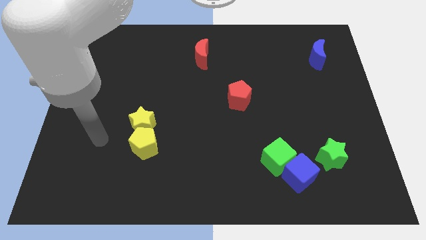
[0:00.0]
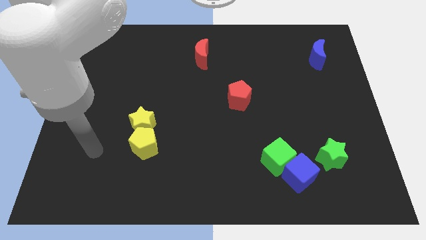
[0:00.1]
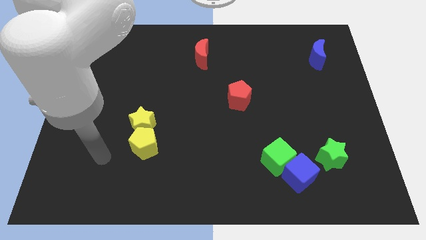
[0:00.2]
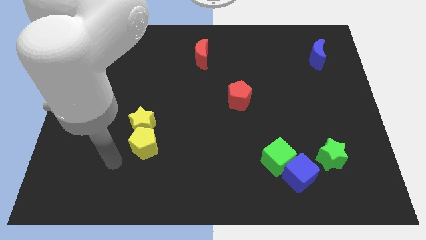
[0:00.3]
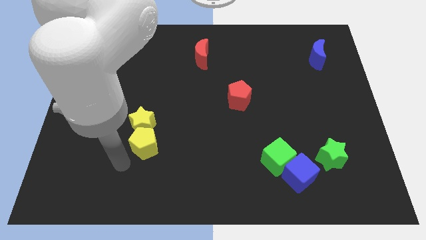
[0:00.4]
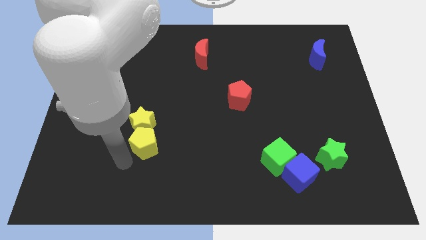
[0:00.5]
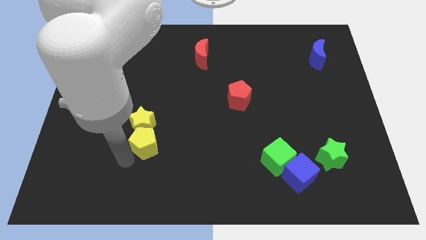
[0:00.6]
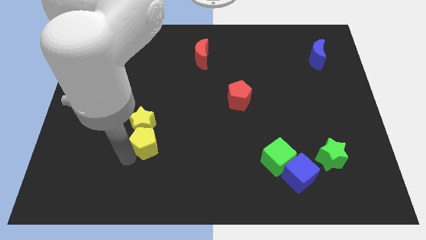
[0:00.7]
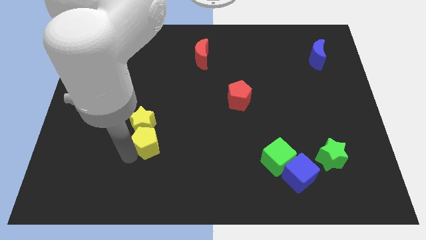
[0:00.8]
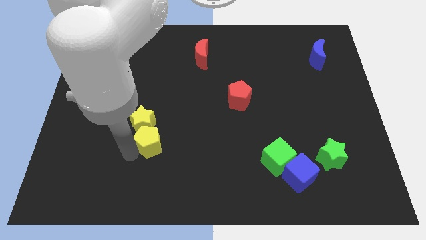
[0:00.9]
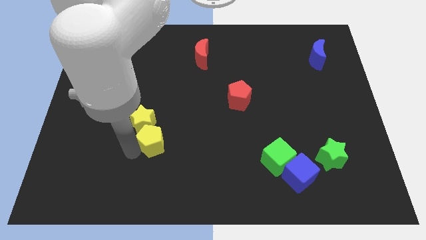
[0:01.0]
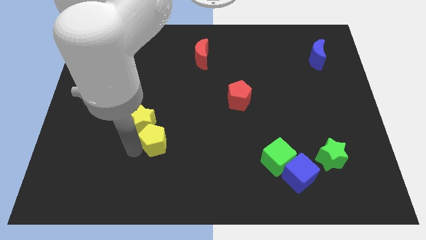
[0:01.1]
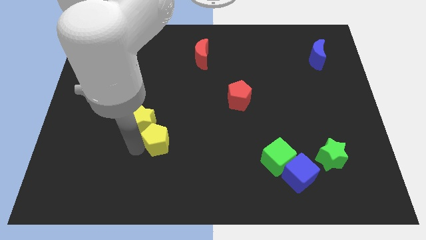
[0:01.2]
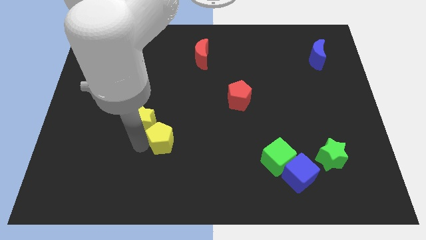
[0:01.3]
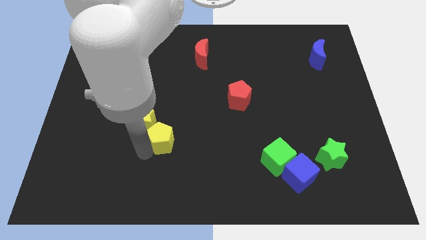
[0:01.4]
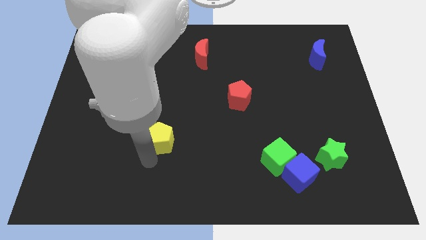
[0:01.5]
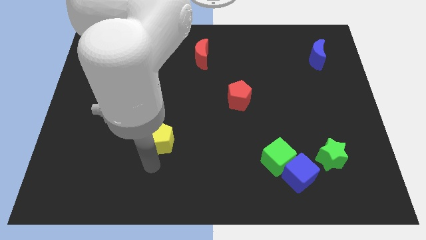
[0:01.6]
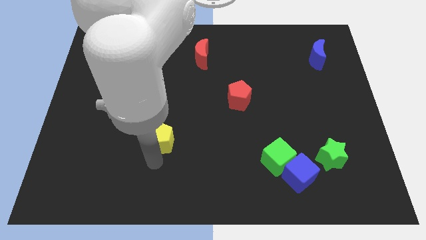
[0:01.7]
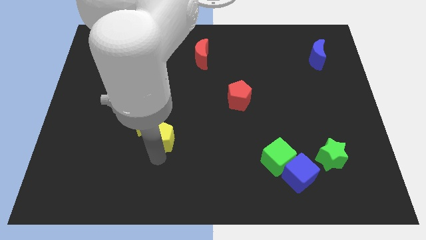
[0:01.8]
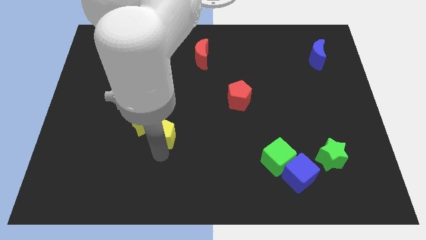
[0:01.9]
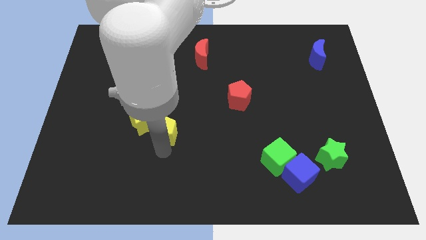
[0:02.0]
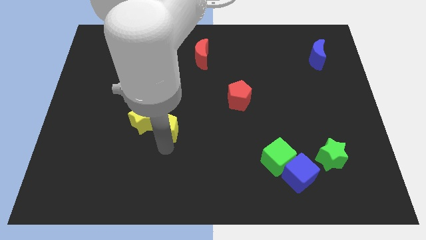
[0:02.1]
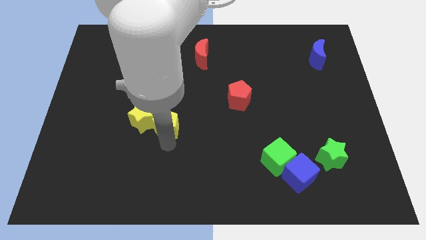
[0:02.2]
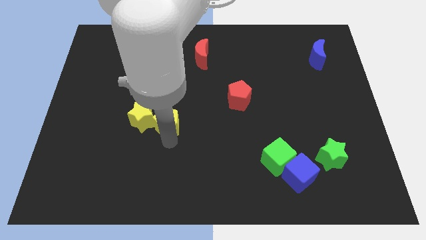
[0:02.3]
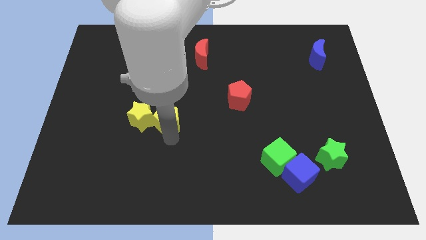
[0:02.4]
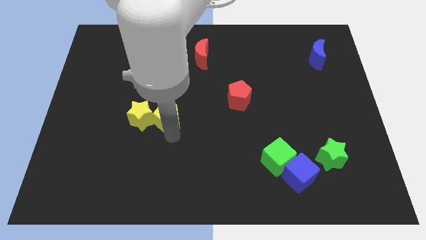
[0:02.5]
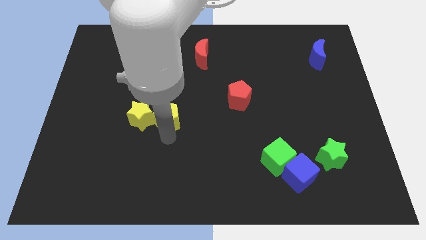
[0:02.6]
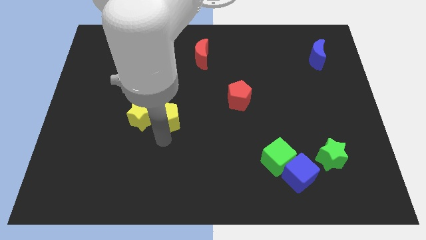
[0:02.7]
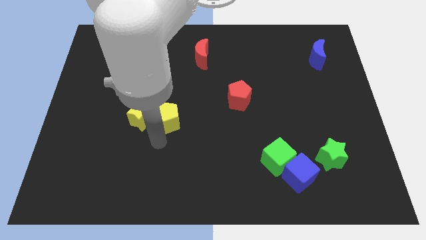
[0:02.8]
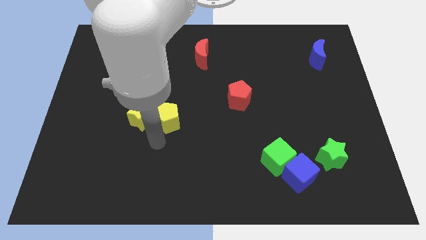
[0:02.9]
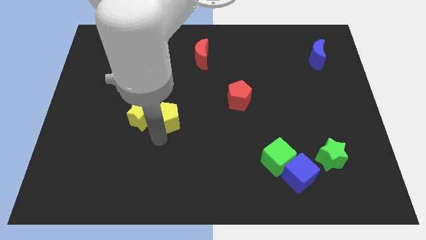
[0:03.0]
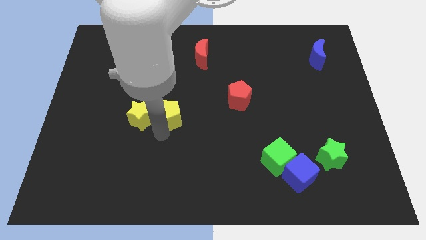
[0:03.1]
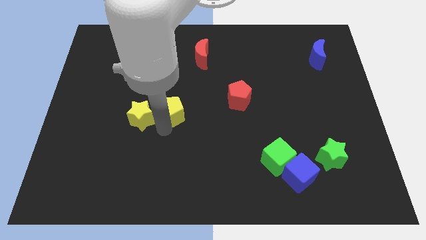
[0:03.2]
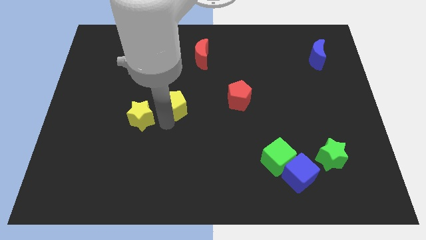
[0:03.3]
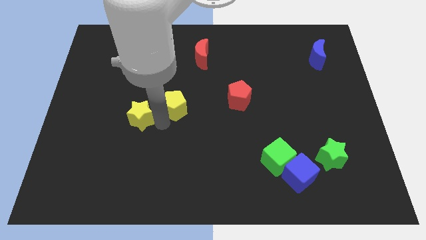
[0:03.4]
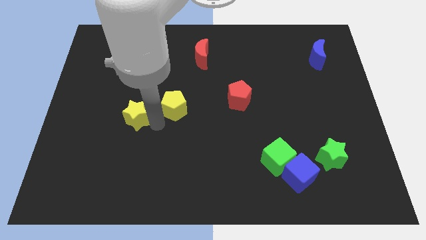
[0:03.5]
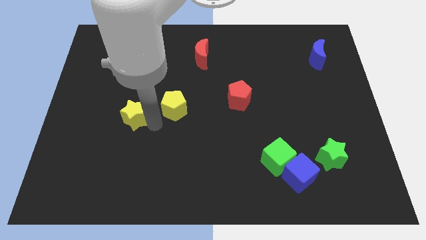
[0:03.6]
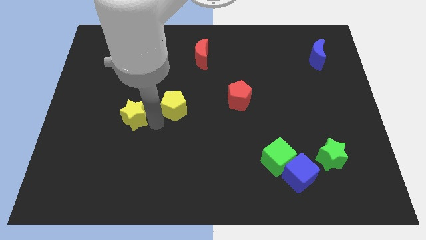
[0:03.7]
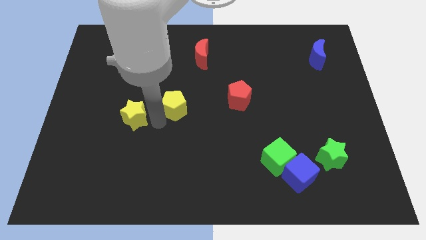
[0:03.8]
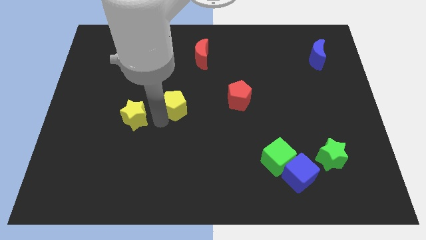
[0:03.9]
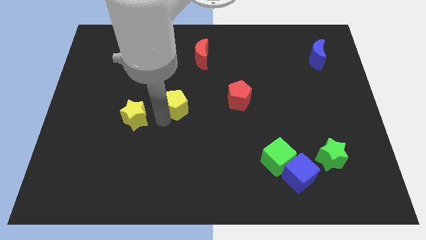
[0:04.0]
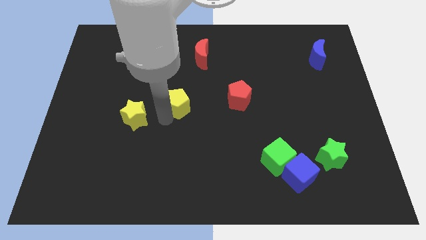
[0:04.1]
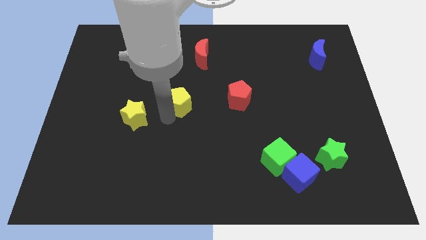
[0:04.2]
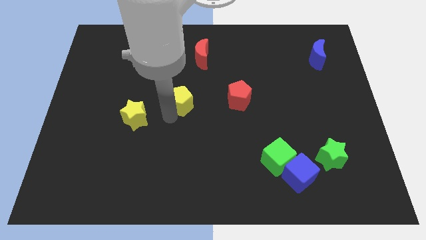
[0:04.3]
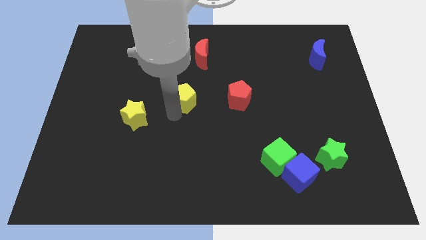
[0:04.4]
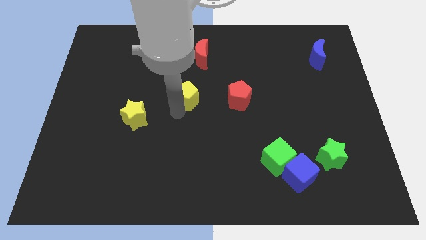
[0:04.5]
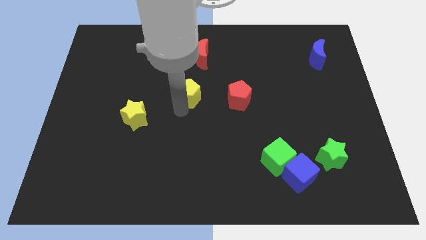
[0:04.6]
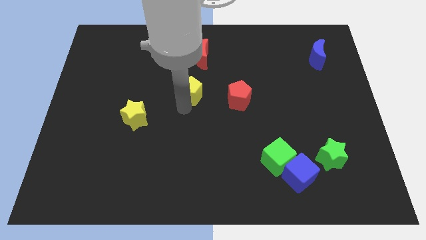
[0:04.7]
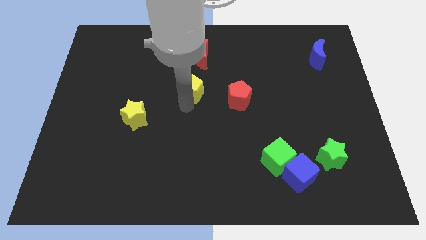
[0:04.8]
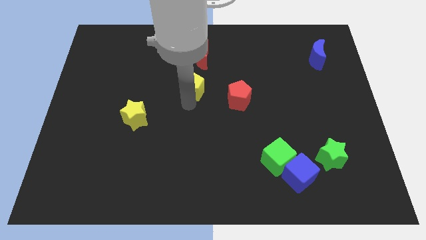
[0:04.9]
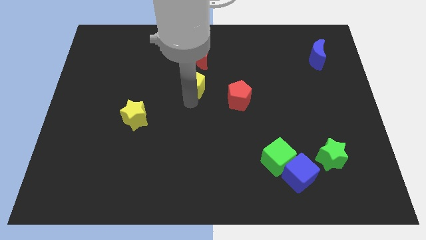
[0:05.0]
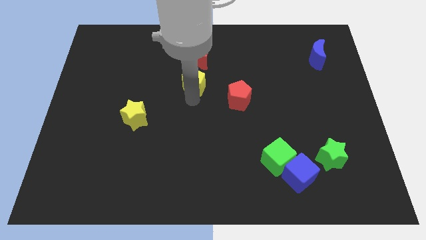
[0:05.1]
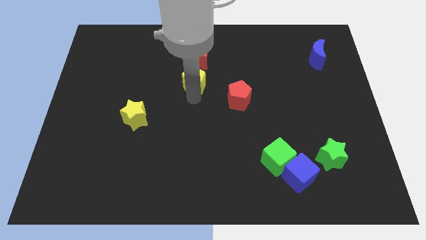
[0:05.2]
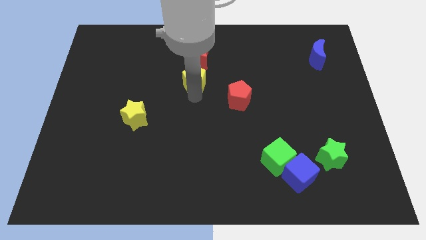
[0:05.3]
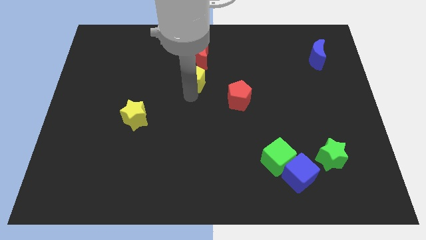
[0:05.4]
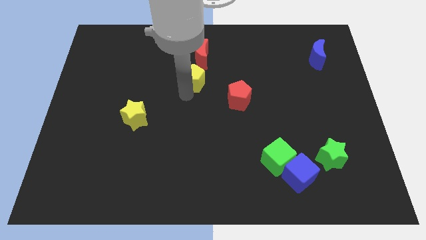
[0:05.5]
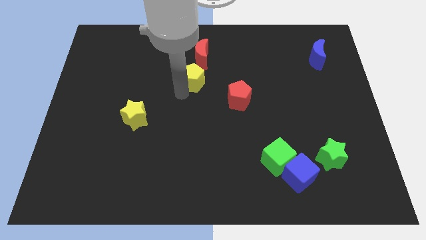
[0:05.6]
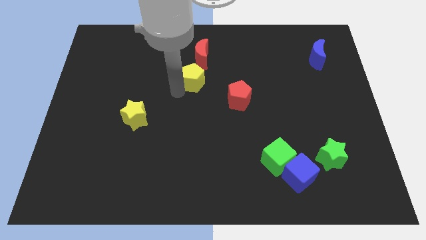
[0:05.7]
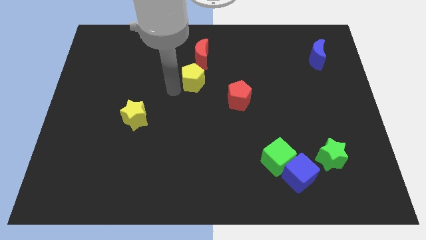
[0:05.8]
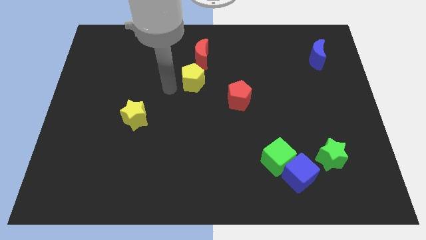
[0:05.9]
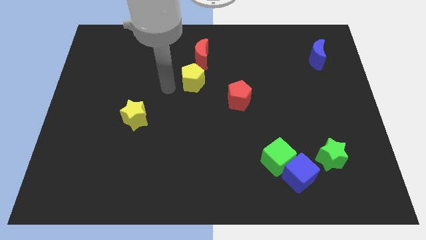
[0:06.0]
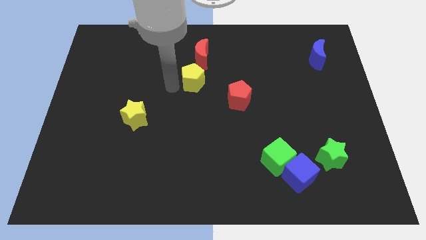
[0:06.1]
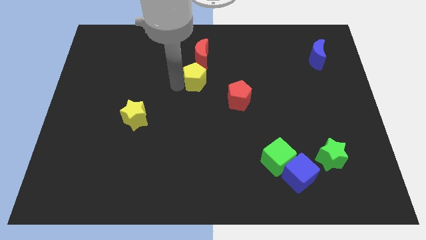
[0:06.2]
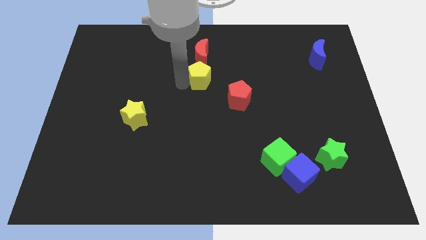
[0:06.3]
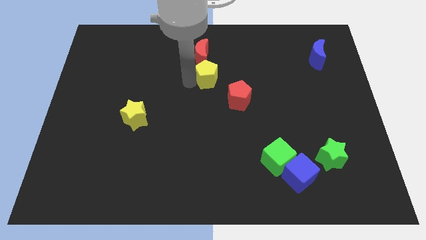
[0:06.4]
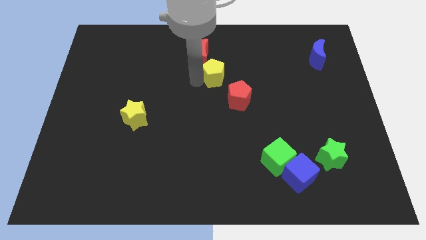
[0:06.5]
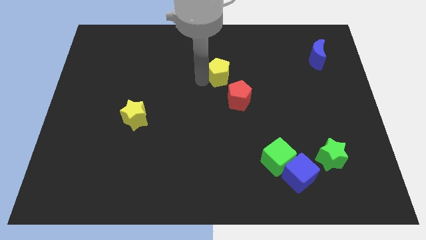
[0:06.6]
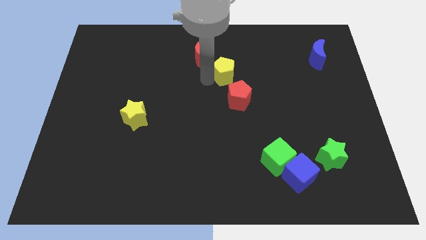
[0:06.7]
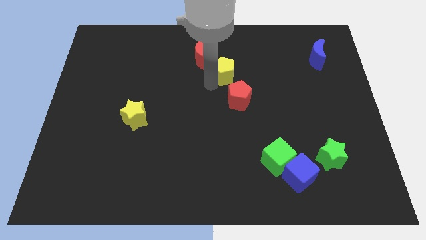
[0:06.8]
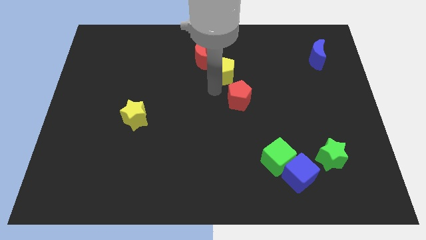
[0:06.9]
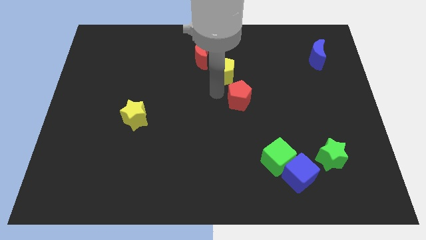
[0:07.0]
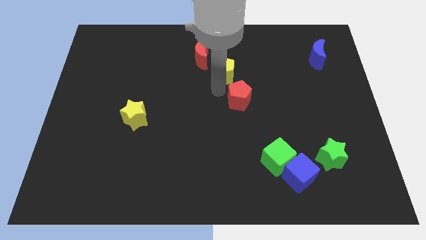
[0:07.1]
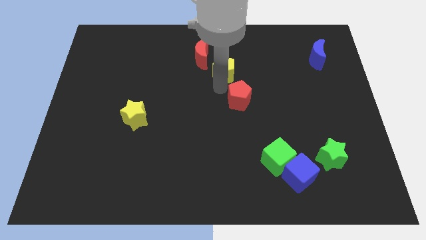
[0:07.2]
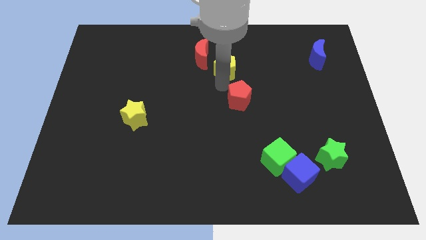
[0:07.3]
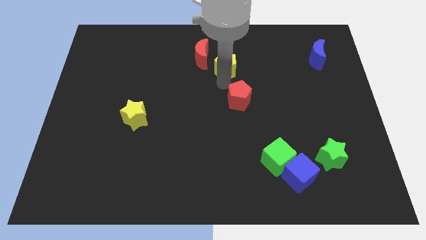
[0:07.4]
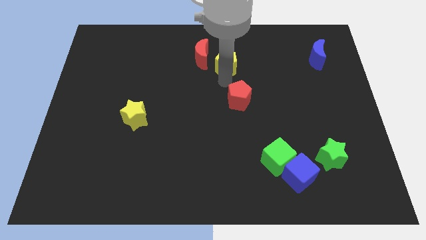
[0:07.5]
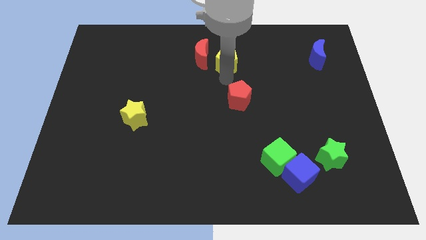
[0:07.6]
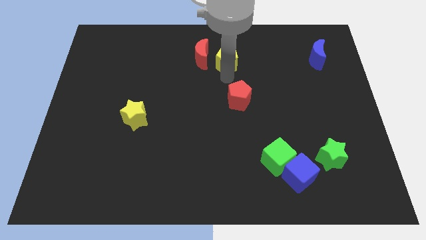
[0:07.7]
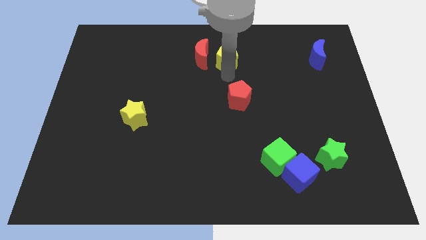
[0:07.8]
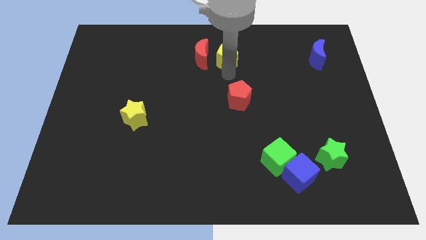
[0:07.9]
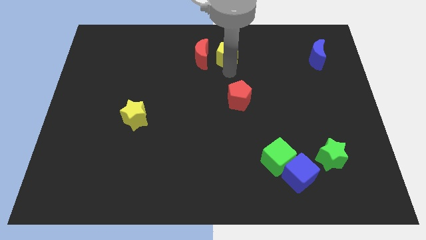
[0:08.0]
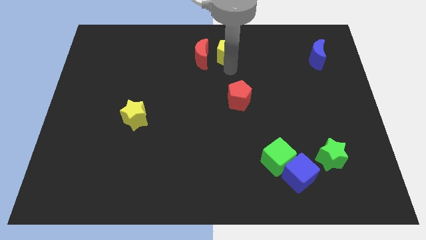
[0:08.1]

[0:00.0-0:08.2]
push the yellow pentagon to the top
